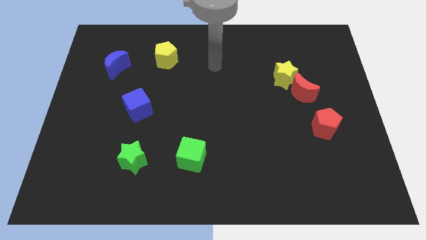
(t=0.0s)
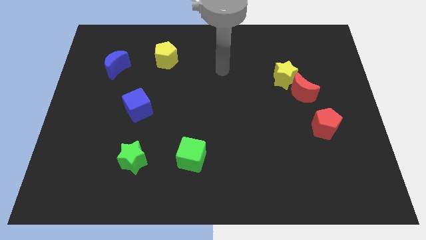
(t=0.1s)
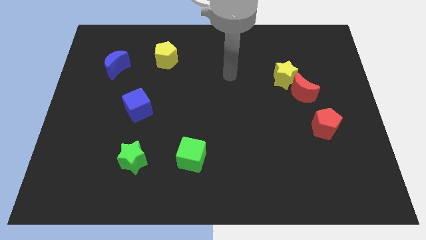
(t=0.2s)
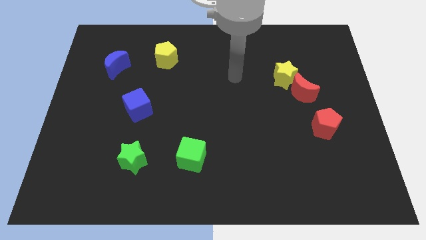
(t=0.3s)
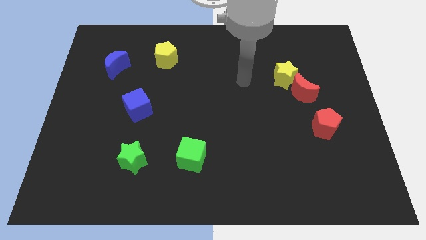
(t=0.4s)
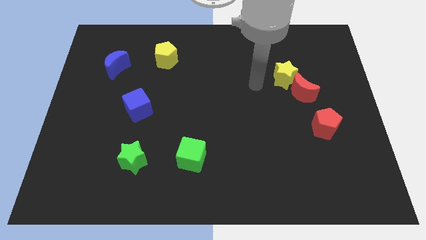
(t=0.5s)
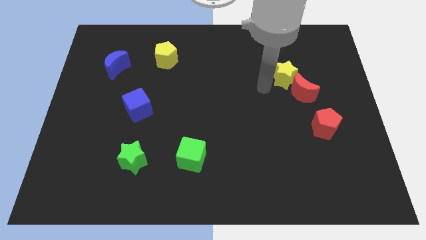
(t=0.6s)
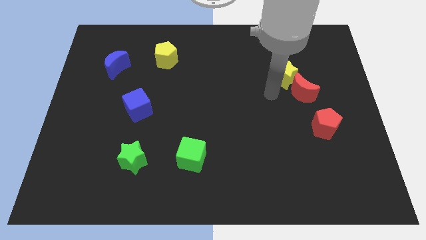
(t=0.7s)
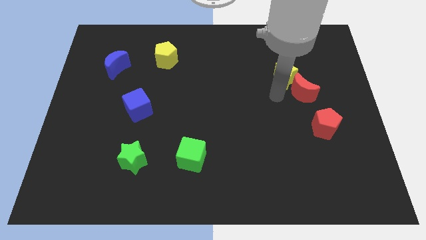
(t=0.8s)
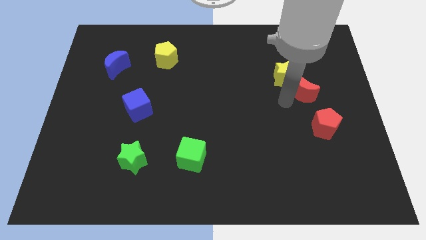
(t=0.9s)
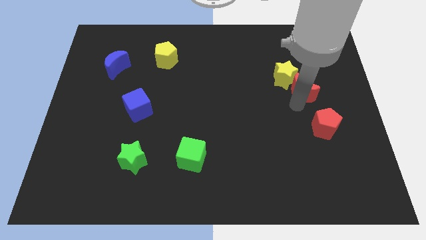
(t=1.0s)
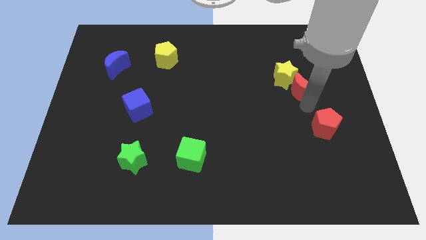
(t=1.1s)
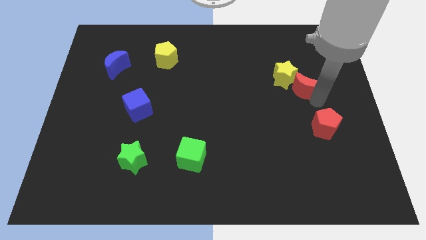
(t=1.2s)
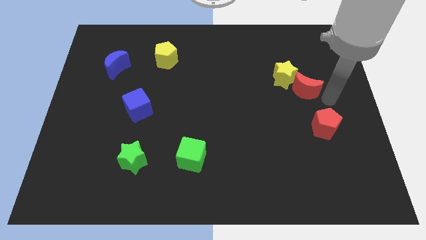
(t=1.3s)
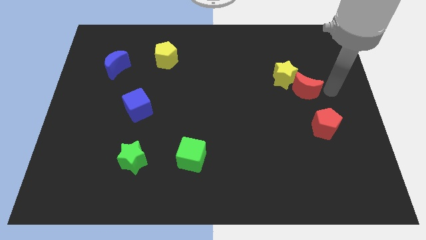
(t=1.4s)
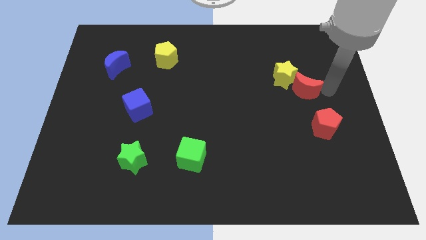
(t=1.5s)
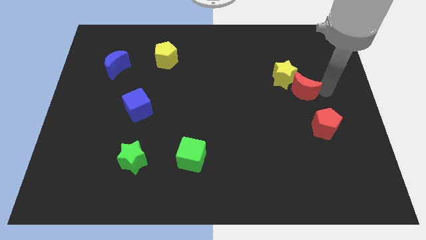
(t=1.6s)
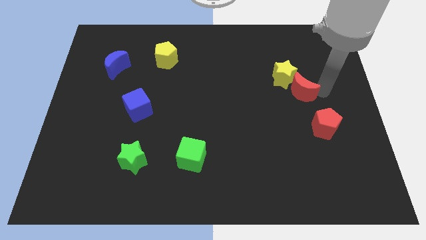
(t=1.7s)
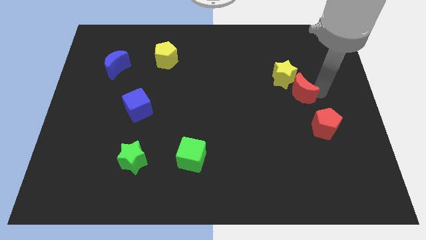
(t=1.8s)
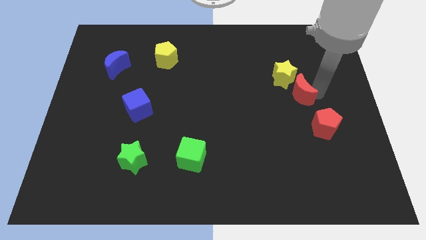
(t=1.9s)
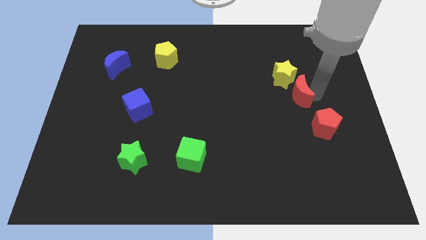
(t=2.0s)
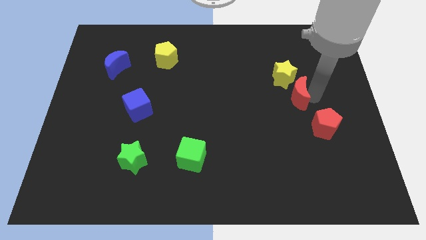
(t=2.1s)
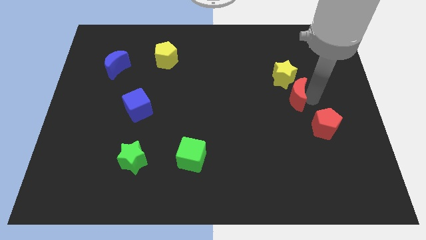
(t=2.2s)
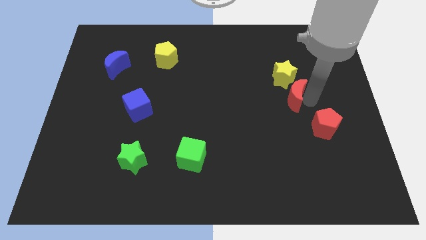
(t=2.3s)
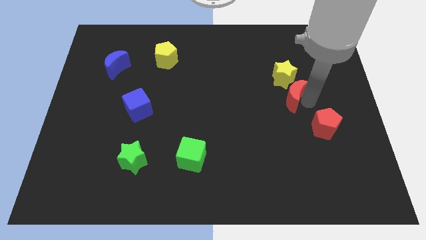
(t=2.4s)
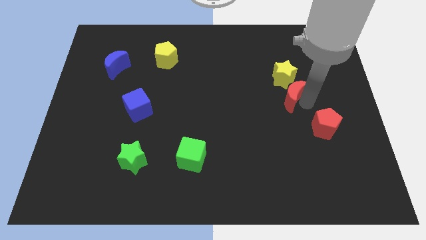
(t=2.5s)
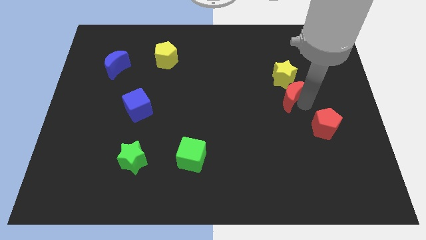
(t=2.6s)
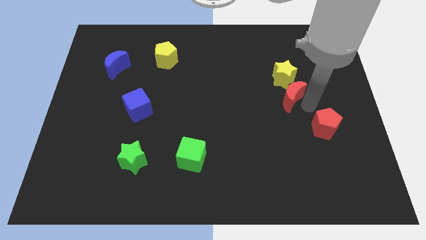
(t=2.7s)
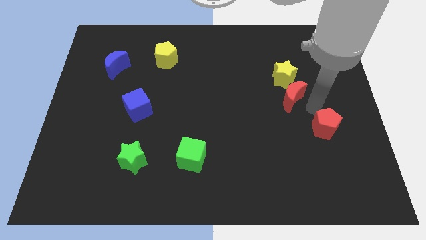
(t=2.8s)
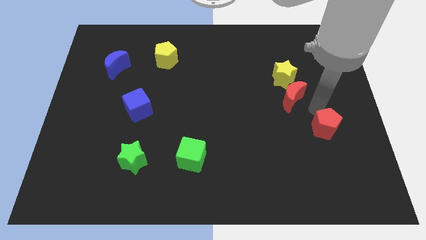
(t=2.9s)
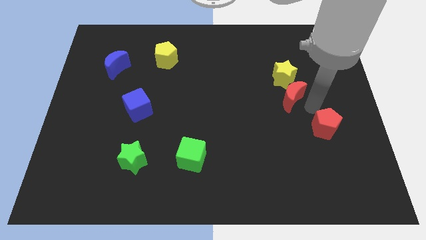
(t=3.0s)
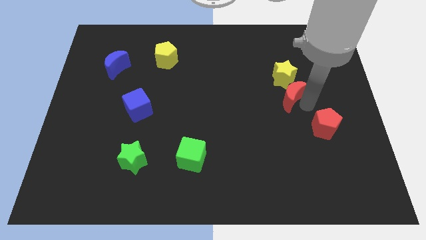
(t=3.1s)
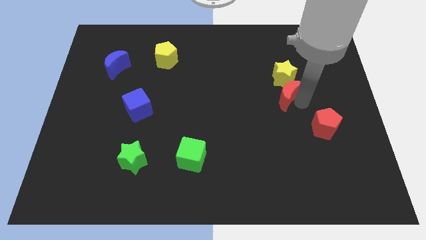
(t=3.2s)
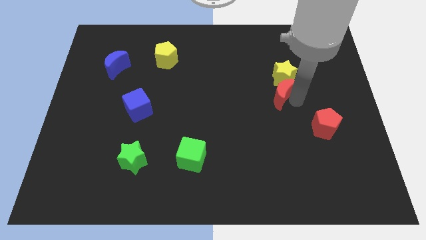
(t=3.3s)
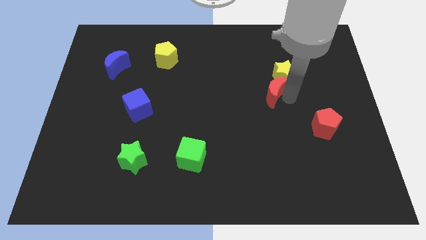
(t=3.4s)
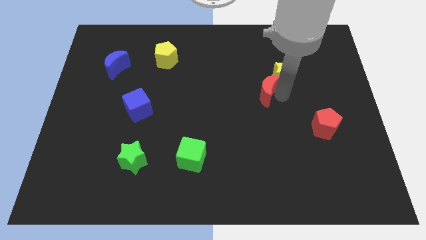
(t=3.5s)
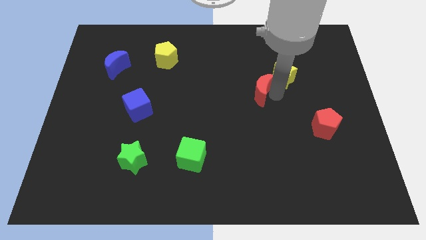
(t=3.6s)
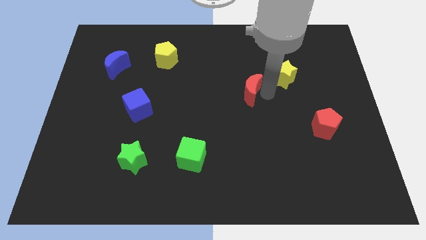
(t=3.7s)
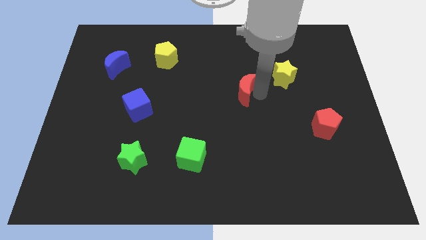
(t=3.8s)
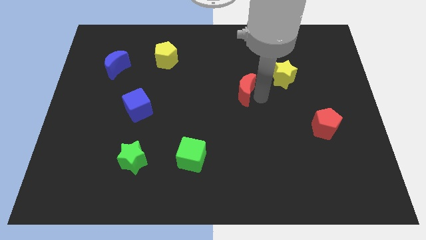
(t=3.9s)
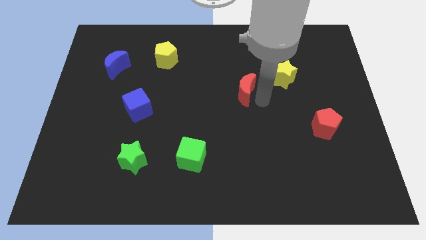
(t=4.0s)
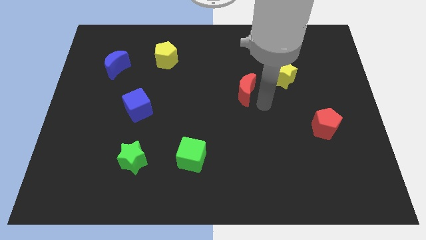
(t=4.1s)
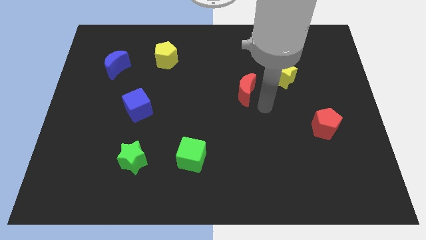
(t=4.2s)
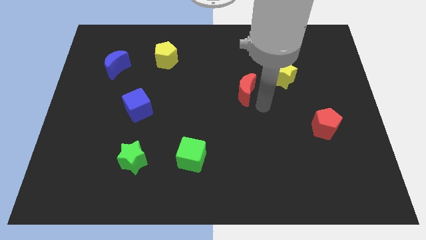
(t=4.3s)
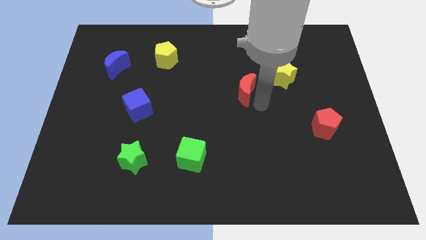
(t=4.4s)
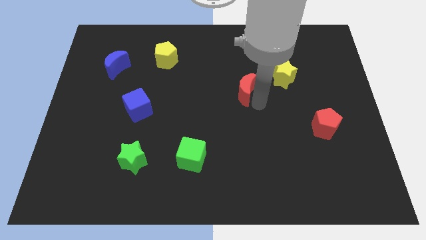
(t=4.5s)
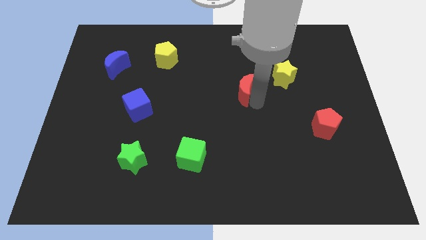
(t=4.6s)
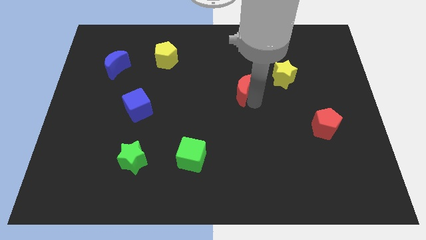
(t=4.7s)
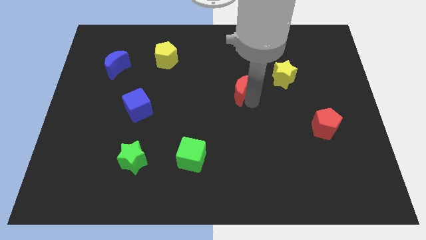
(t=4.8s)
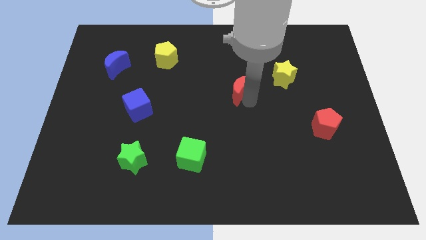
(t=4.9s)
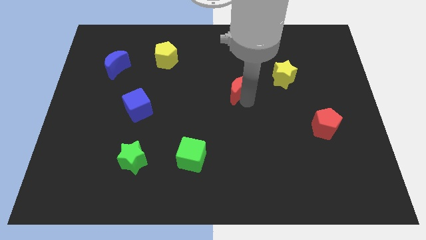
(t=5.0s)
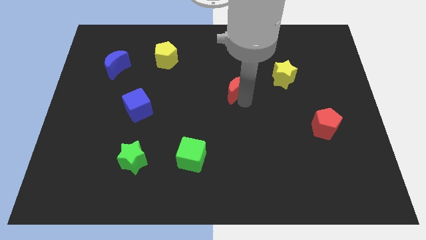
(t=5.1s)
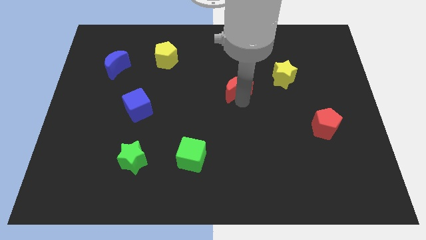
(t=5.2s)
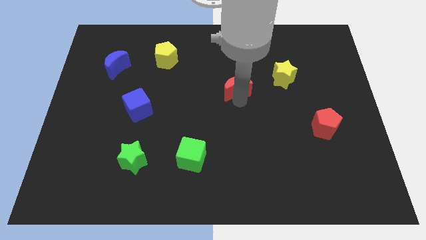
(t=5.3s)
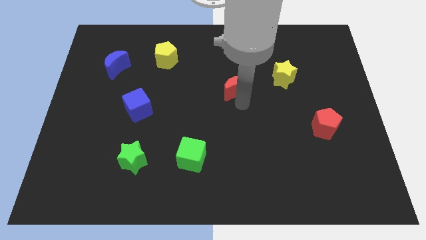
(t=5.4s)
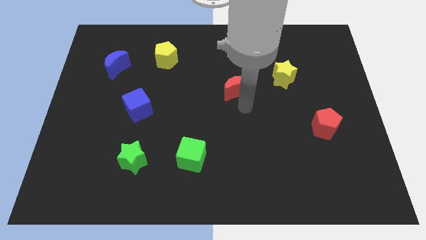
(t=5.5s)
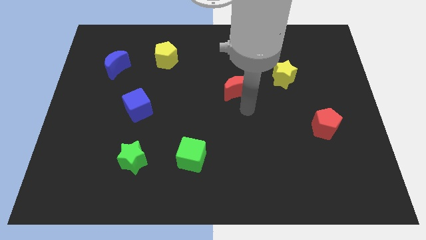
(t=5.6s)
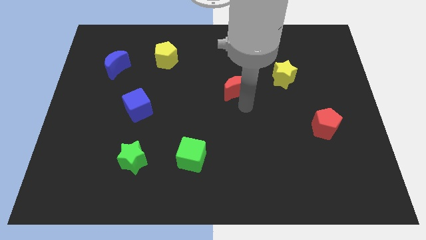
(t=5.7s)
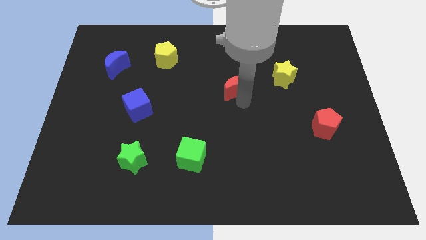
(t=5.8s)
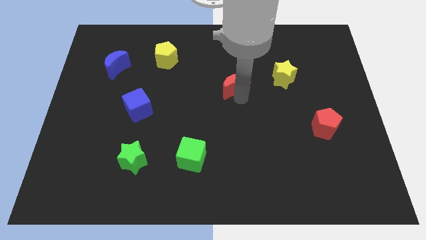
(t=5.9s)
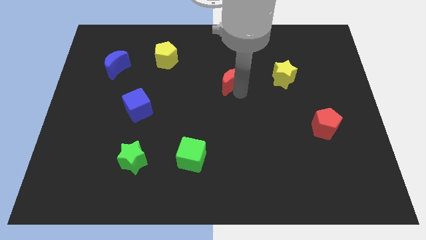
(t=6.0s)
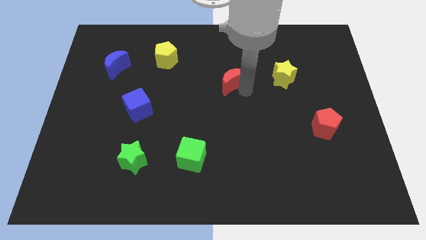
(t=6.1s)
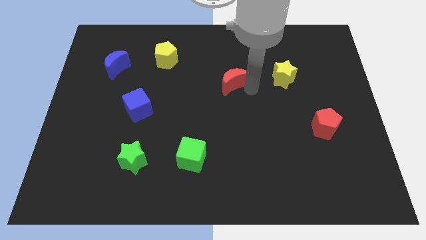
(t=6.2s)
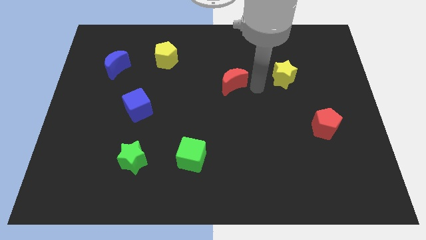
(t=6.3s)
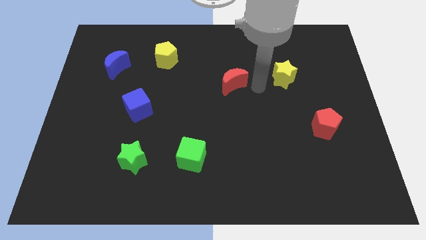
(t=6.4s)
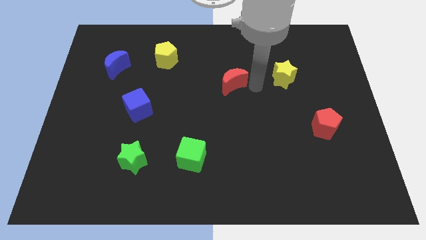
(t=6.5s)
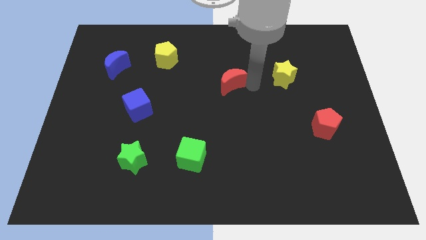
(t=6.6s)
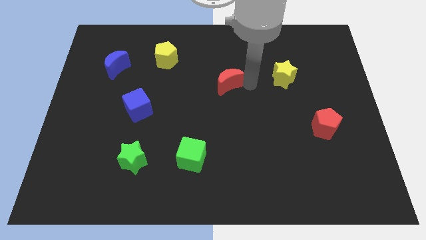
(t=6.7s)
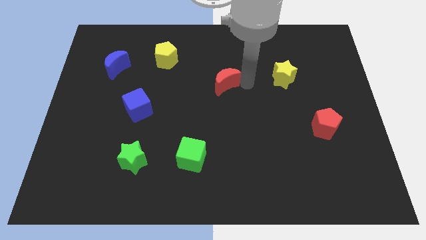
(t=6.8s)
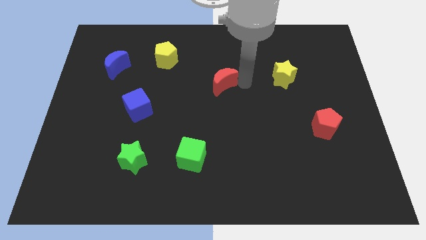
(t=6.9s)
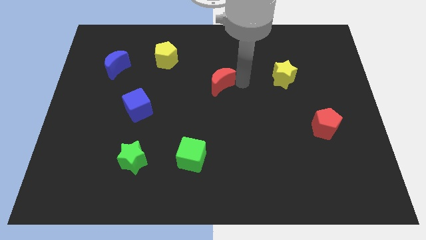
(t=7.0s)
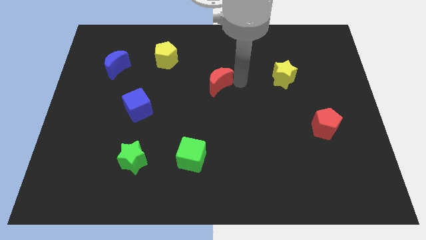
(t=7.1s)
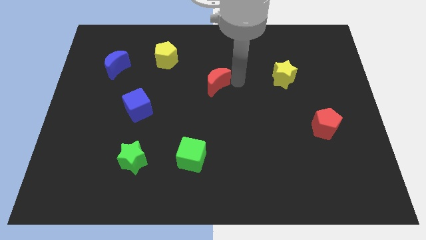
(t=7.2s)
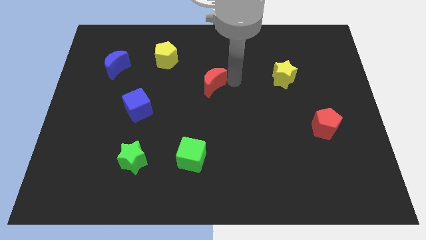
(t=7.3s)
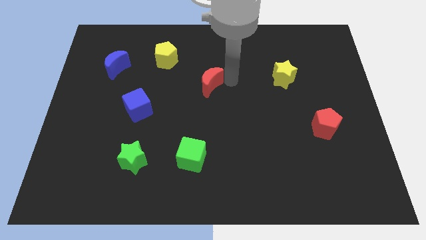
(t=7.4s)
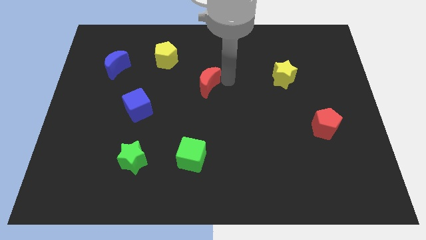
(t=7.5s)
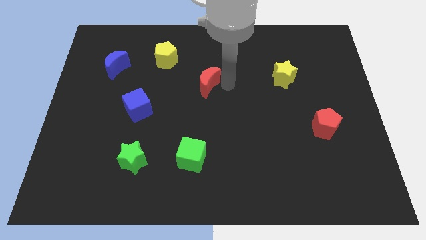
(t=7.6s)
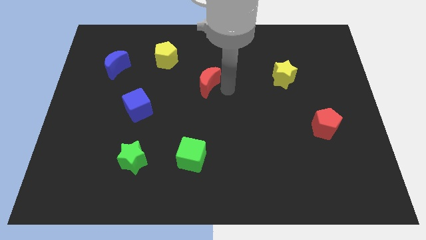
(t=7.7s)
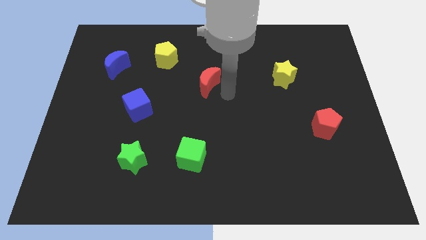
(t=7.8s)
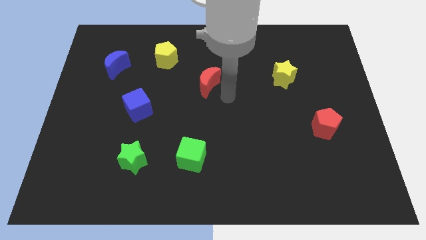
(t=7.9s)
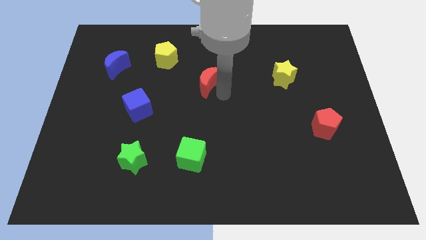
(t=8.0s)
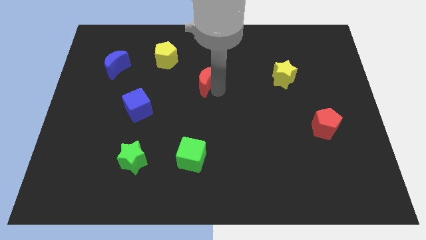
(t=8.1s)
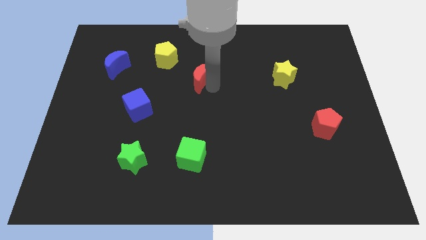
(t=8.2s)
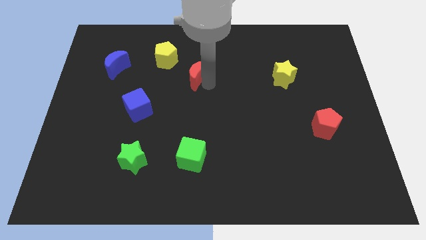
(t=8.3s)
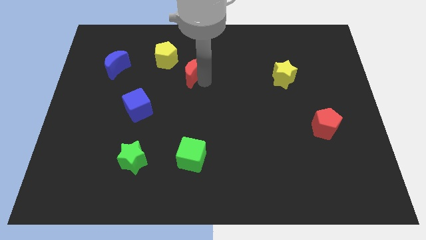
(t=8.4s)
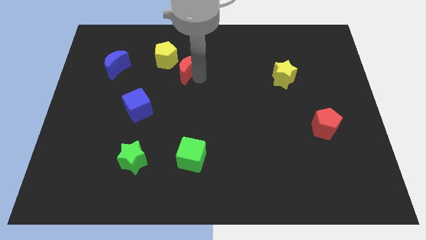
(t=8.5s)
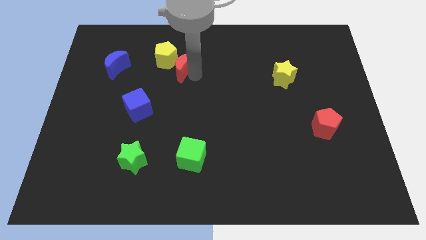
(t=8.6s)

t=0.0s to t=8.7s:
slide the red moon close to the yellow pentagon
